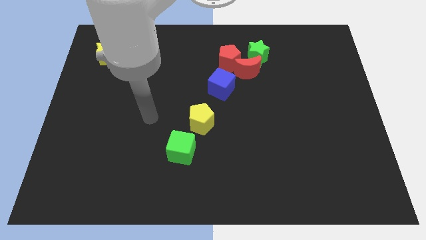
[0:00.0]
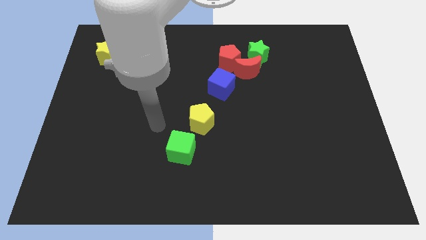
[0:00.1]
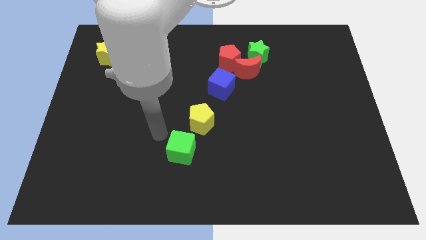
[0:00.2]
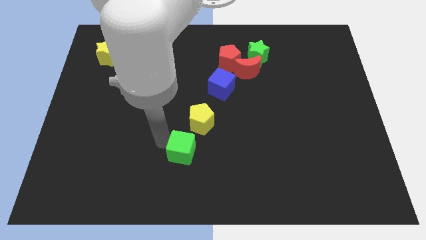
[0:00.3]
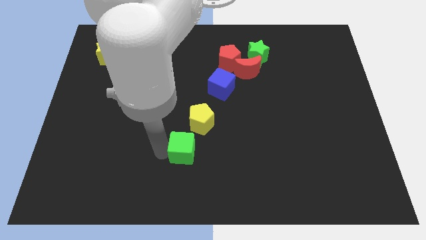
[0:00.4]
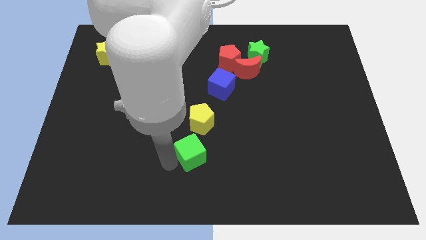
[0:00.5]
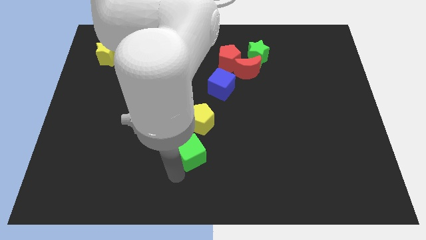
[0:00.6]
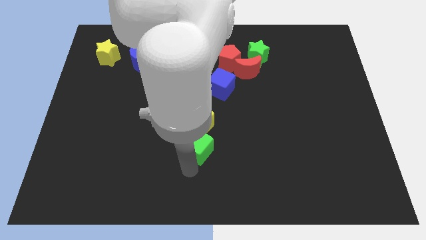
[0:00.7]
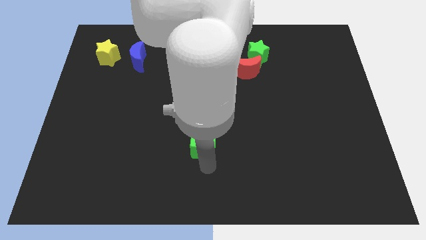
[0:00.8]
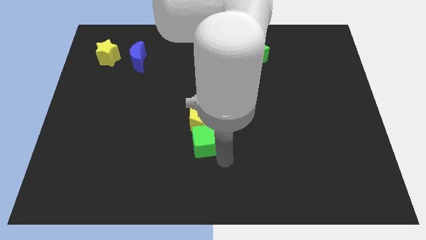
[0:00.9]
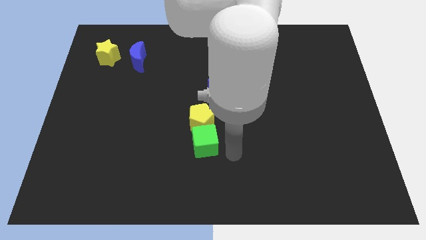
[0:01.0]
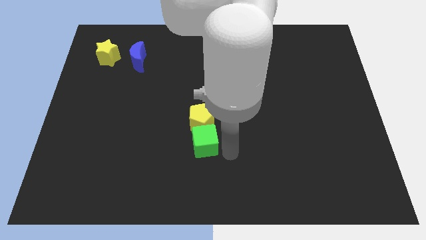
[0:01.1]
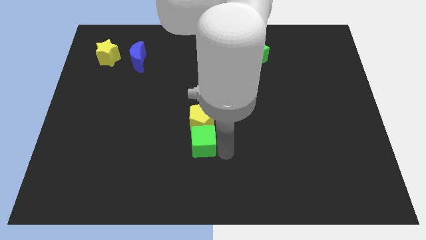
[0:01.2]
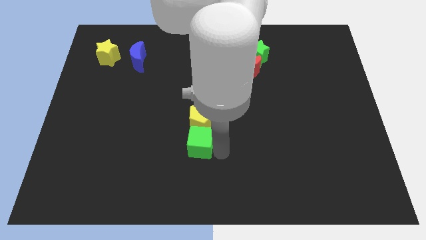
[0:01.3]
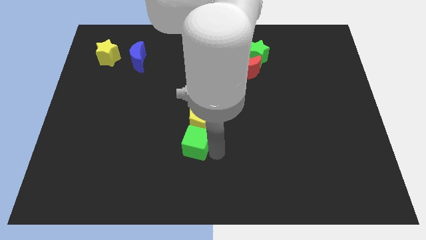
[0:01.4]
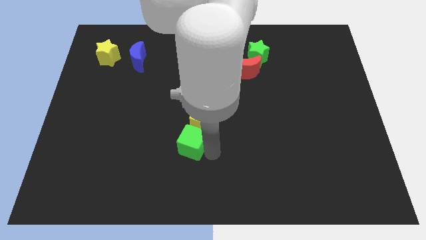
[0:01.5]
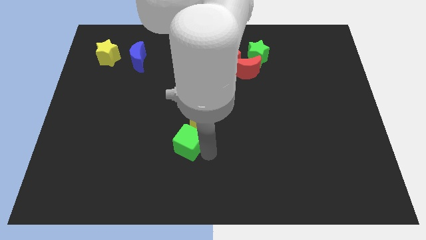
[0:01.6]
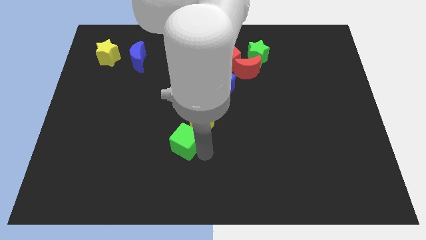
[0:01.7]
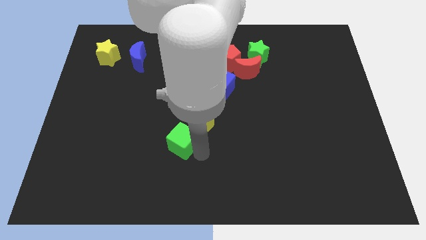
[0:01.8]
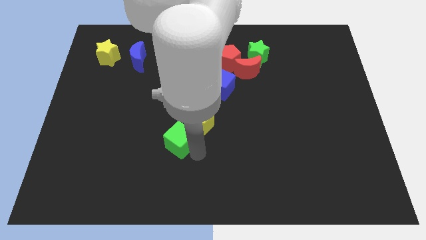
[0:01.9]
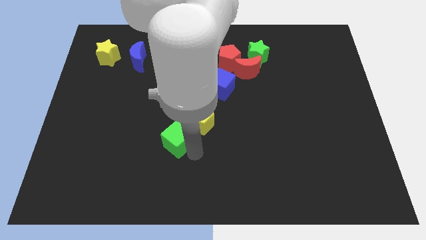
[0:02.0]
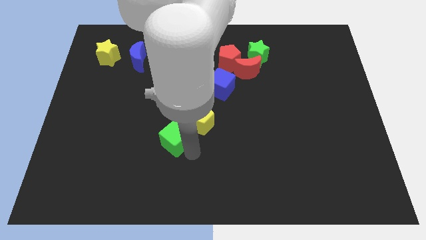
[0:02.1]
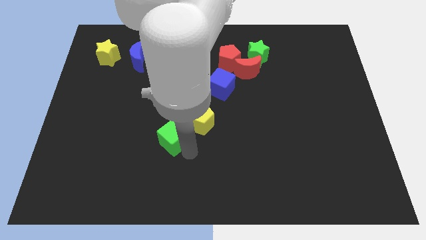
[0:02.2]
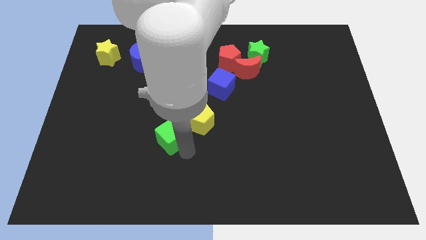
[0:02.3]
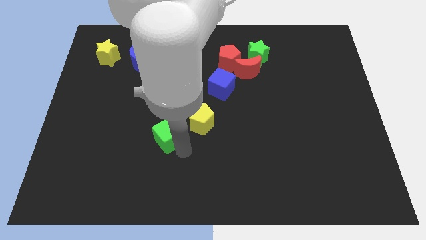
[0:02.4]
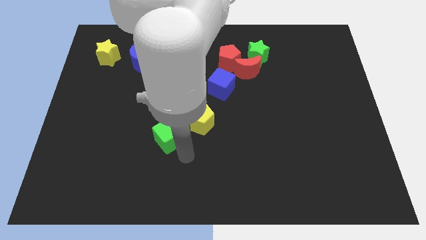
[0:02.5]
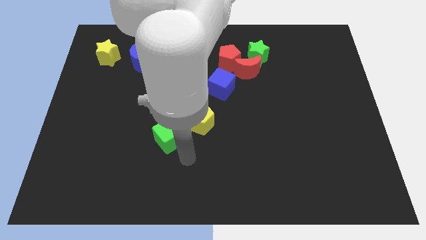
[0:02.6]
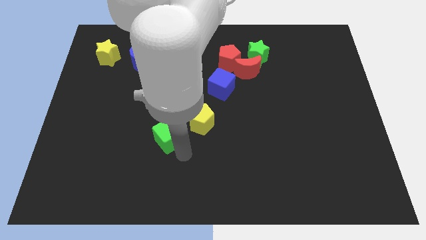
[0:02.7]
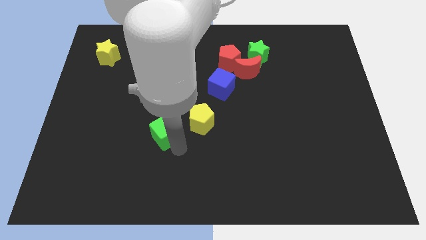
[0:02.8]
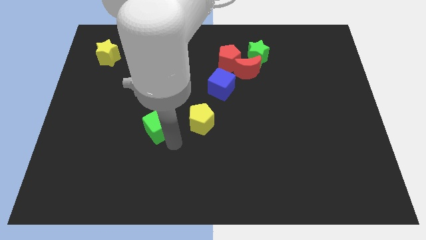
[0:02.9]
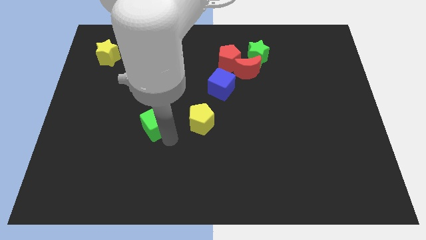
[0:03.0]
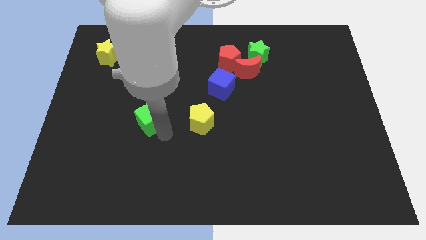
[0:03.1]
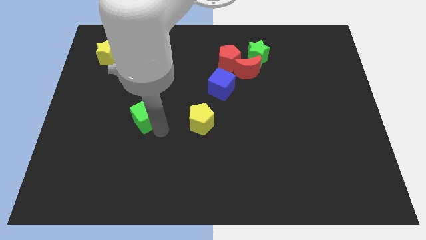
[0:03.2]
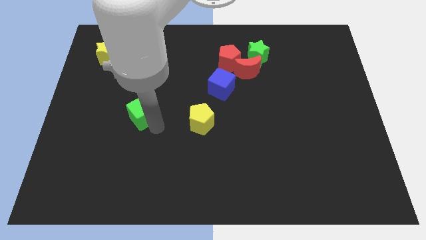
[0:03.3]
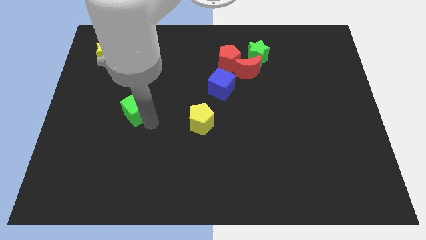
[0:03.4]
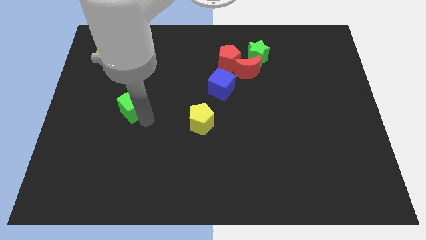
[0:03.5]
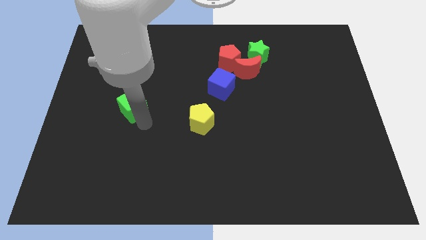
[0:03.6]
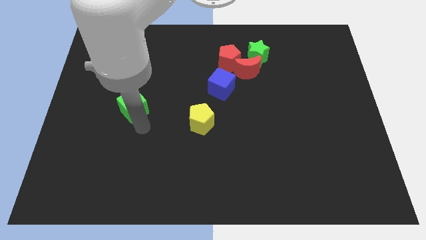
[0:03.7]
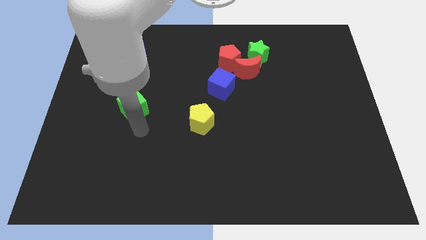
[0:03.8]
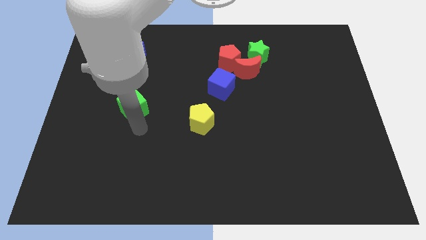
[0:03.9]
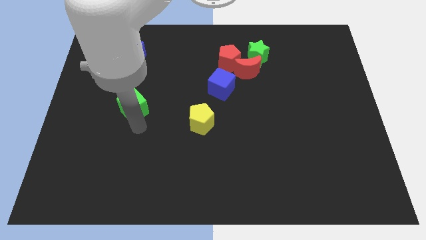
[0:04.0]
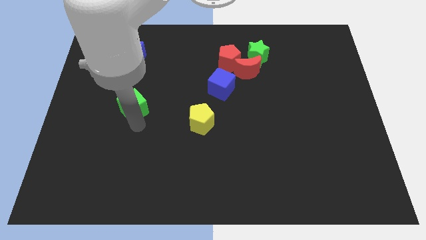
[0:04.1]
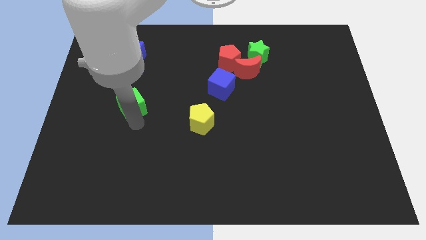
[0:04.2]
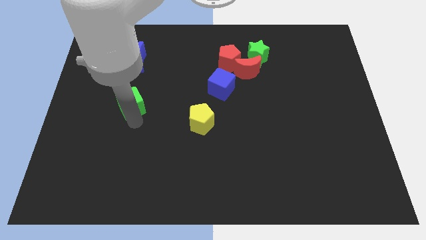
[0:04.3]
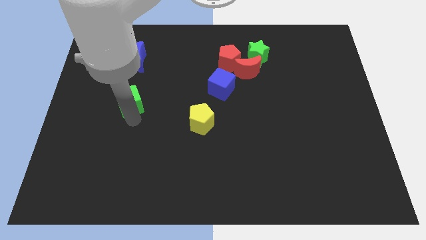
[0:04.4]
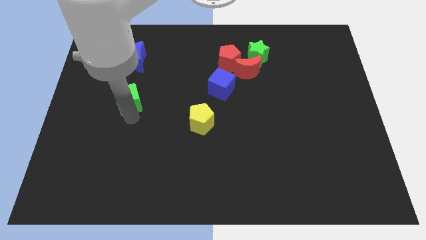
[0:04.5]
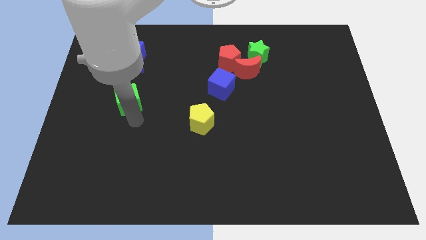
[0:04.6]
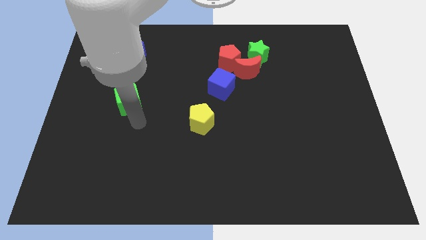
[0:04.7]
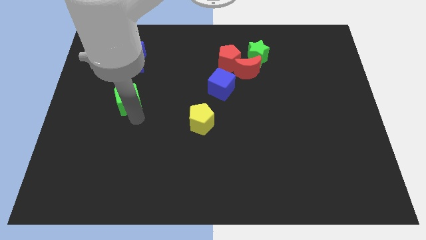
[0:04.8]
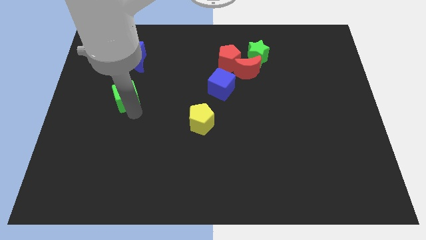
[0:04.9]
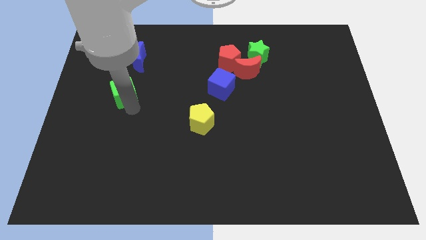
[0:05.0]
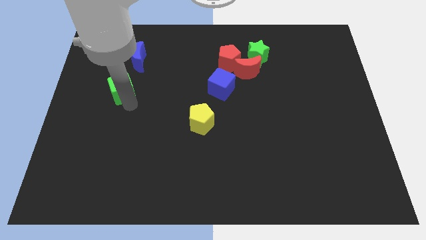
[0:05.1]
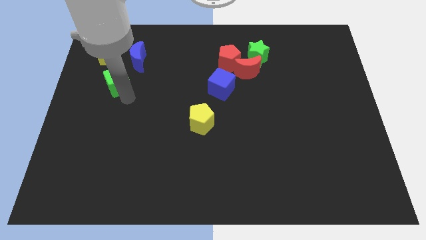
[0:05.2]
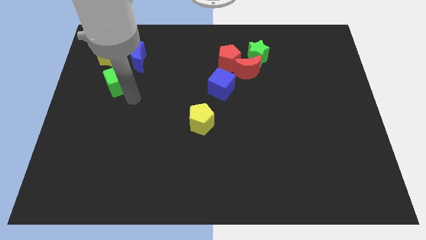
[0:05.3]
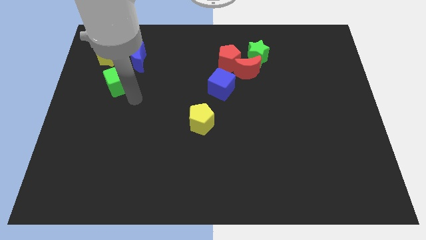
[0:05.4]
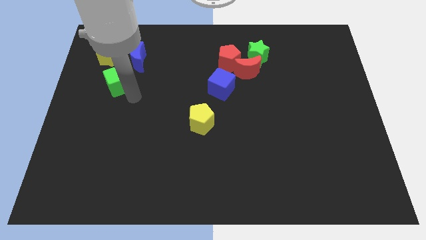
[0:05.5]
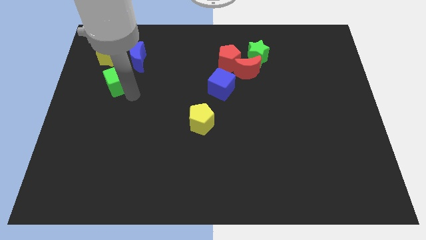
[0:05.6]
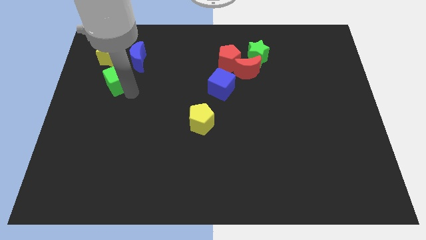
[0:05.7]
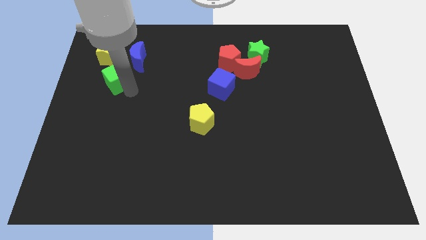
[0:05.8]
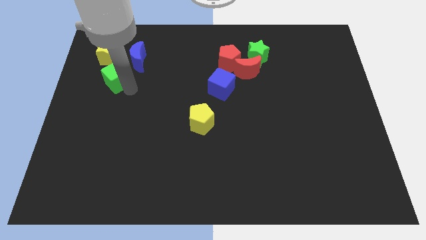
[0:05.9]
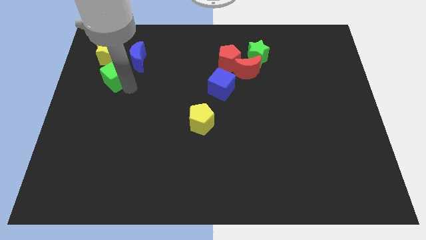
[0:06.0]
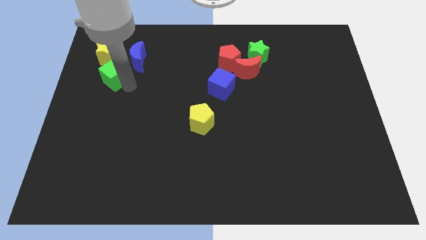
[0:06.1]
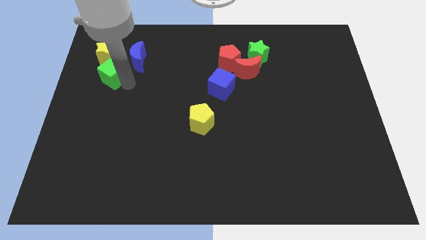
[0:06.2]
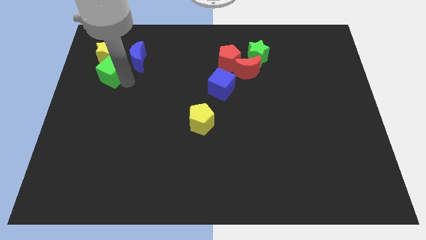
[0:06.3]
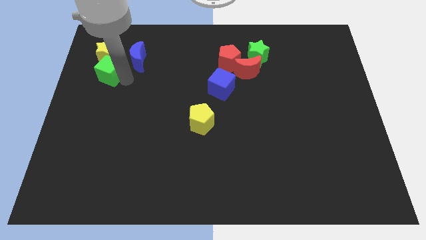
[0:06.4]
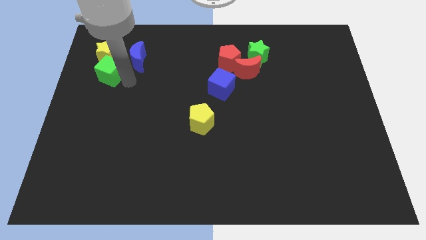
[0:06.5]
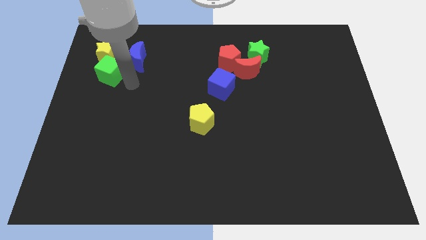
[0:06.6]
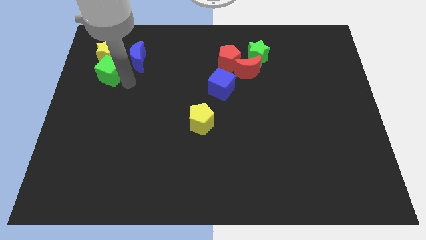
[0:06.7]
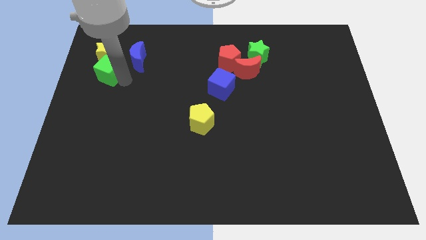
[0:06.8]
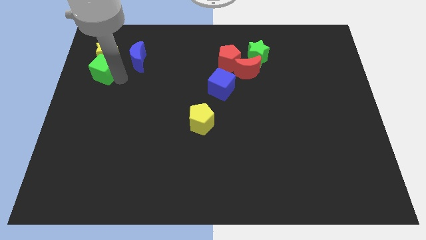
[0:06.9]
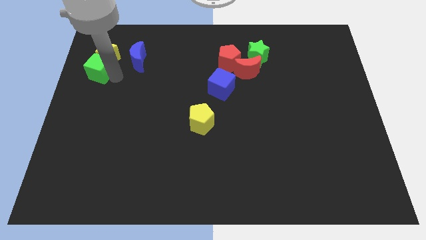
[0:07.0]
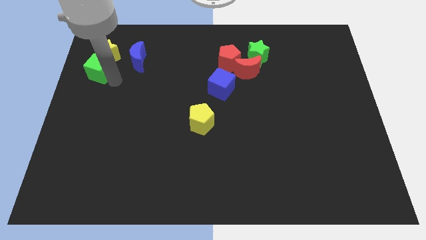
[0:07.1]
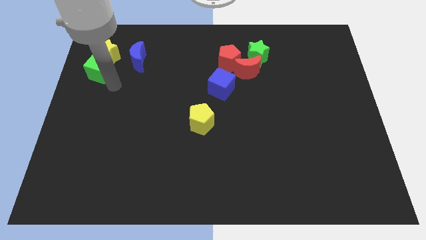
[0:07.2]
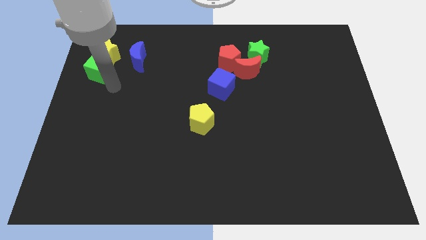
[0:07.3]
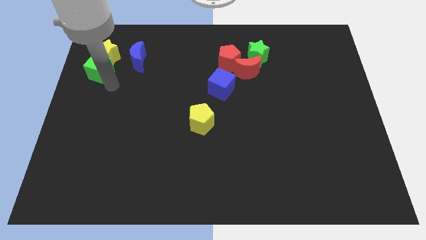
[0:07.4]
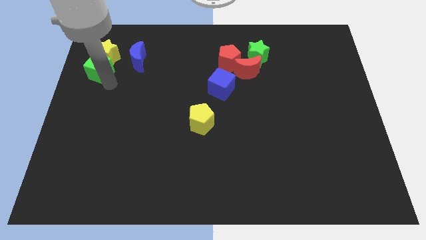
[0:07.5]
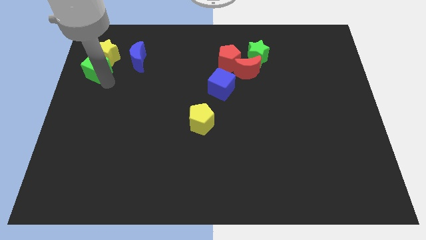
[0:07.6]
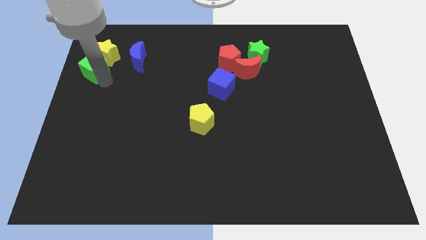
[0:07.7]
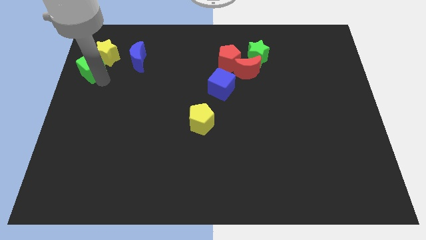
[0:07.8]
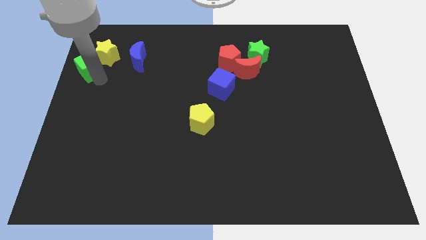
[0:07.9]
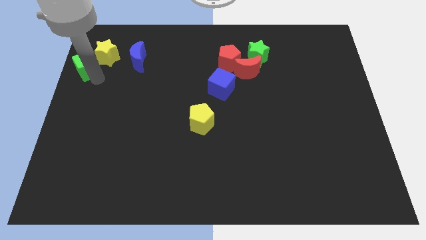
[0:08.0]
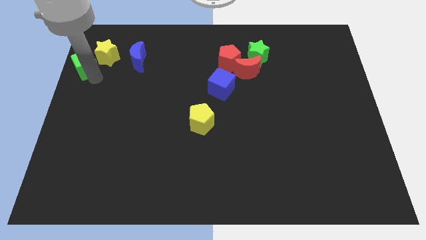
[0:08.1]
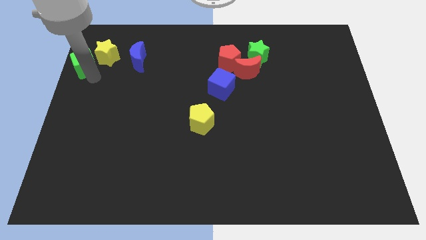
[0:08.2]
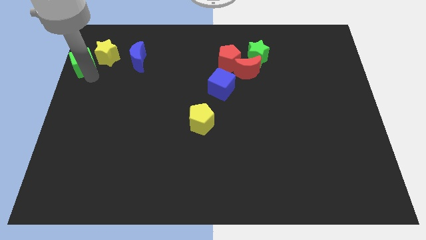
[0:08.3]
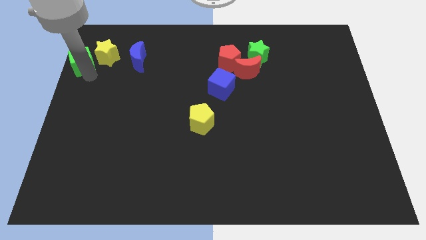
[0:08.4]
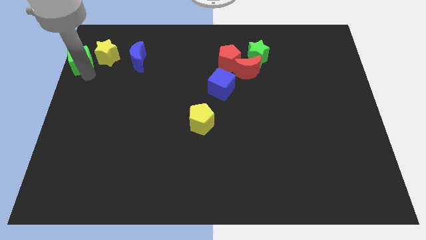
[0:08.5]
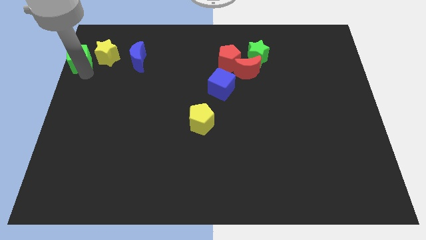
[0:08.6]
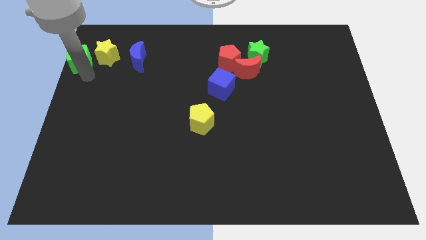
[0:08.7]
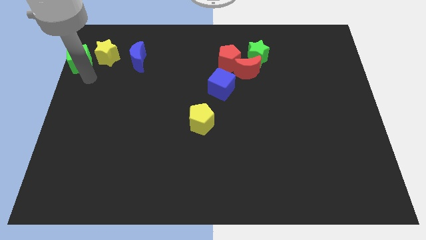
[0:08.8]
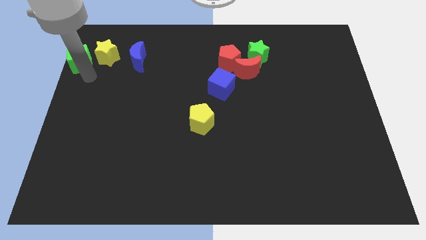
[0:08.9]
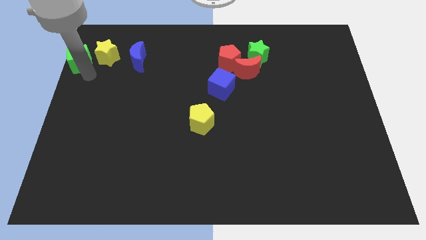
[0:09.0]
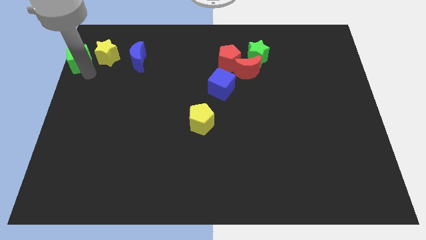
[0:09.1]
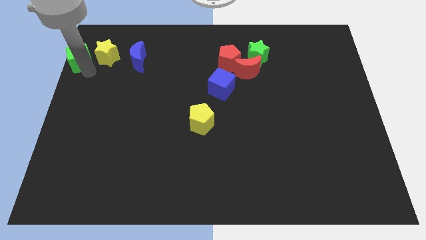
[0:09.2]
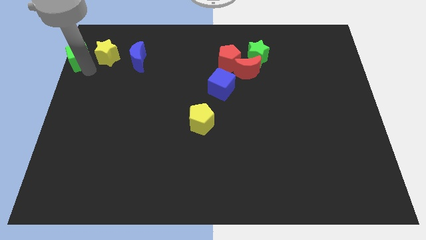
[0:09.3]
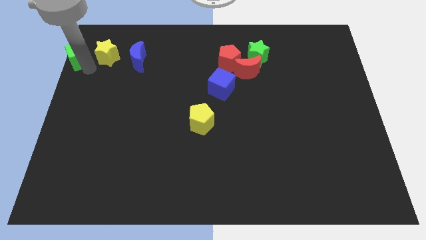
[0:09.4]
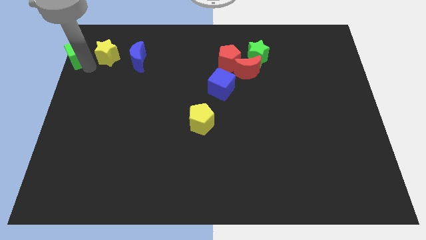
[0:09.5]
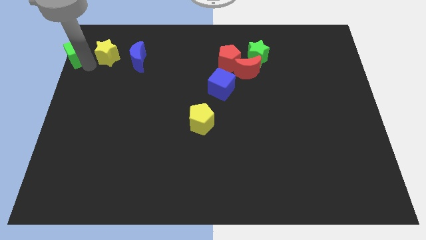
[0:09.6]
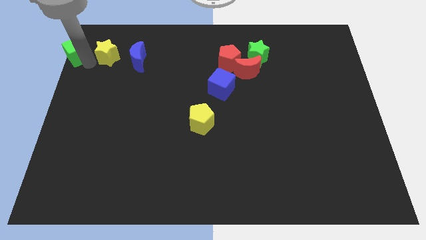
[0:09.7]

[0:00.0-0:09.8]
move the green cube to the top left corner
